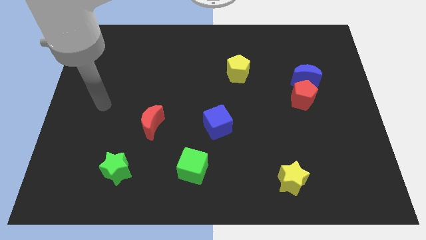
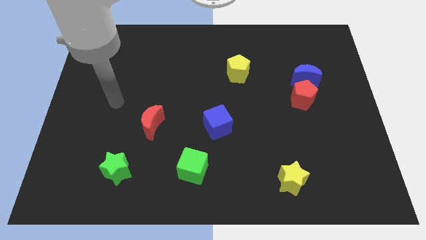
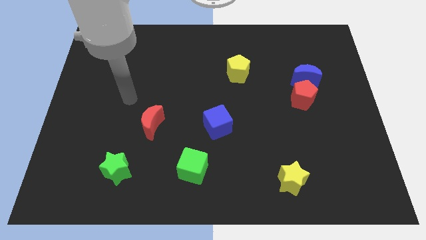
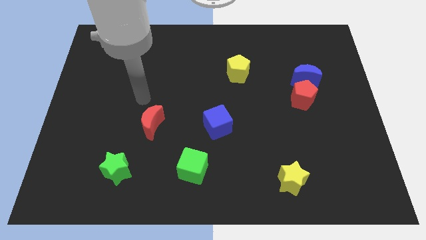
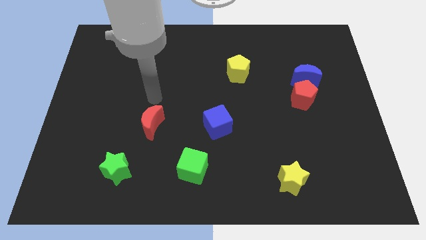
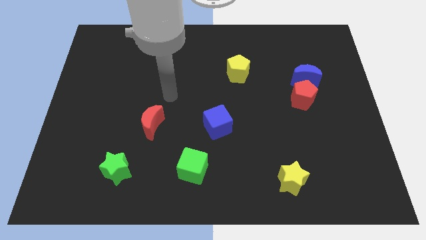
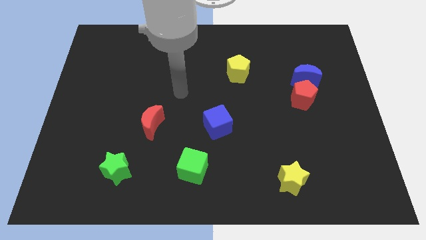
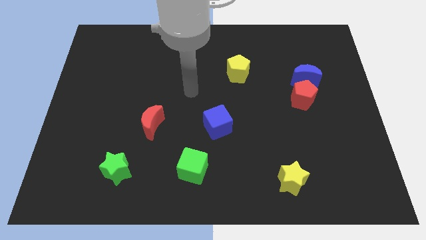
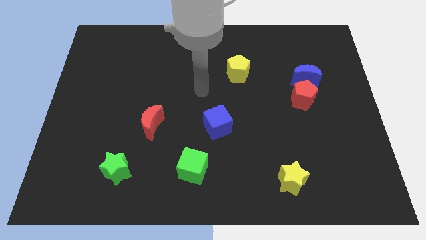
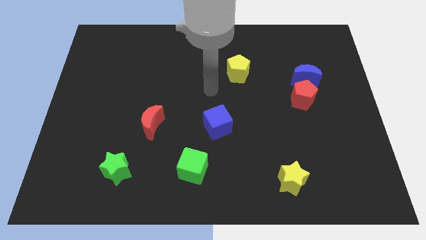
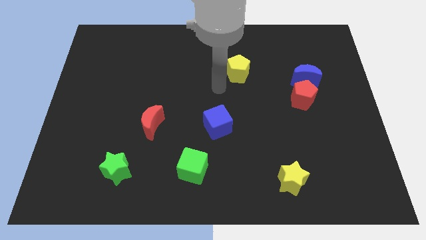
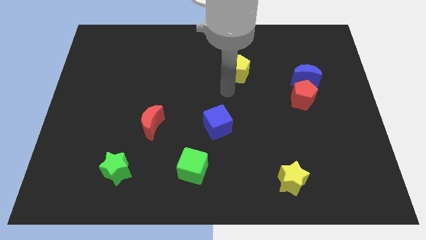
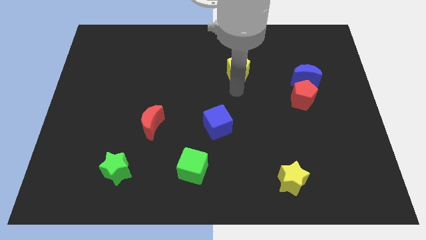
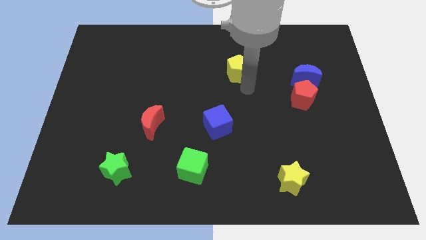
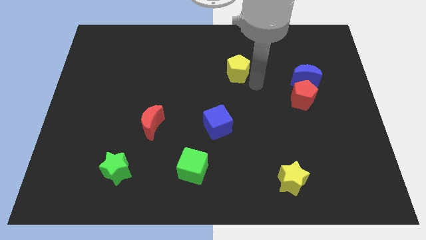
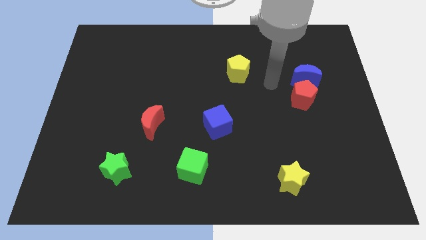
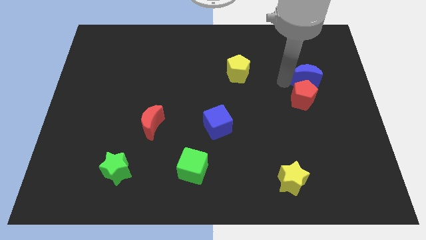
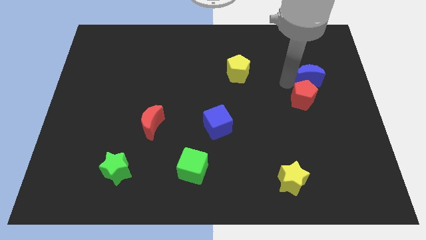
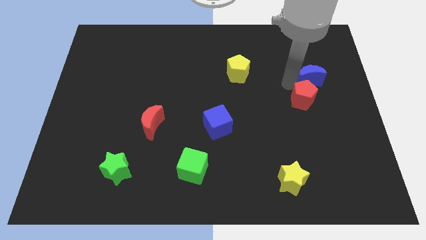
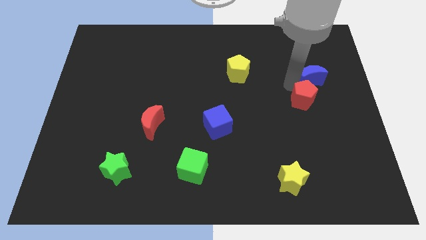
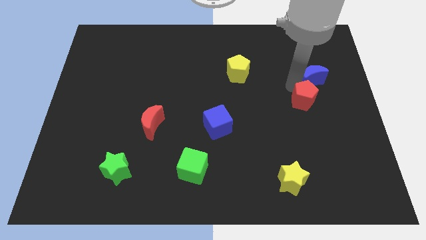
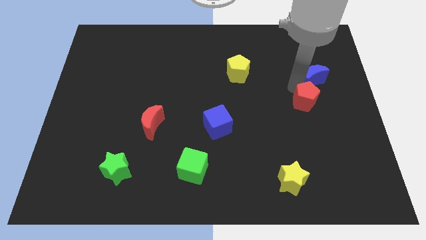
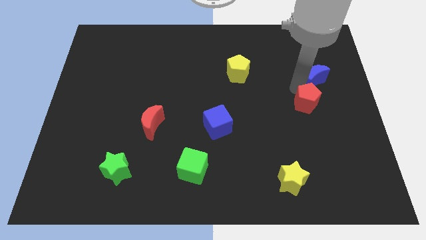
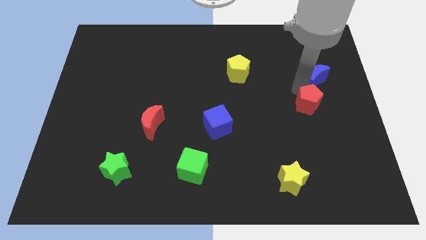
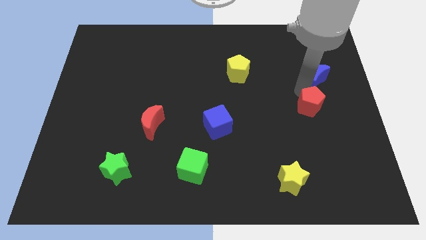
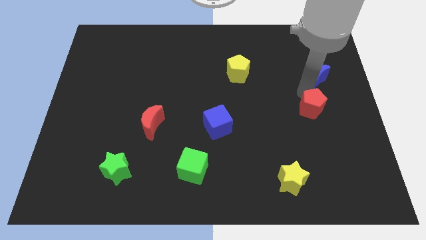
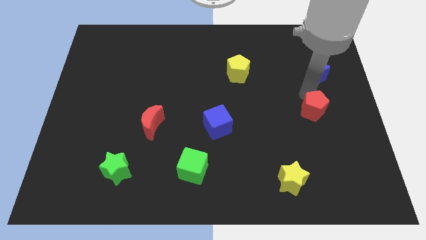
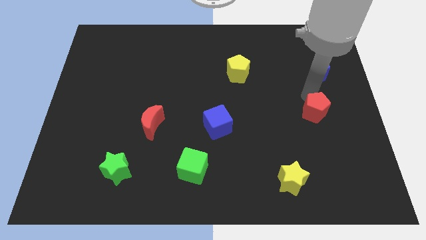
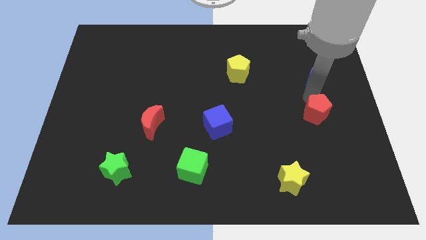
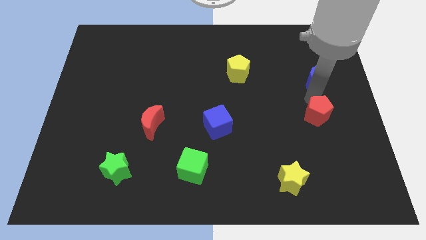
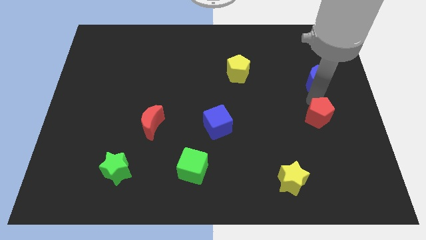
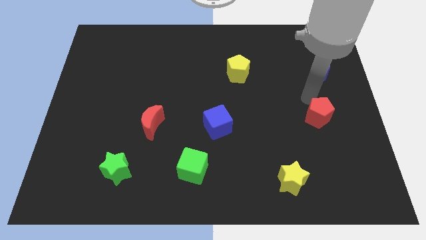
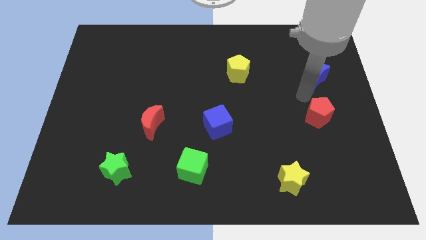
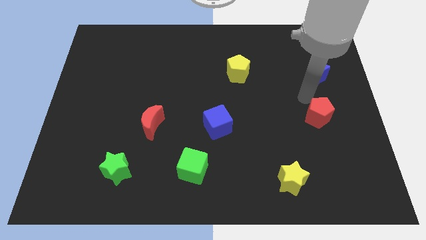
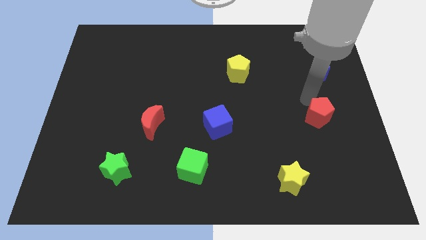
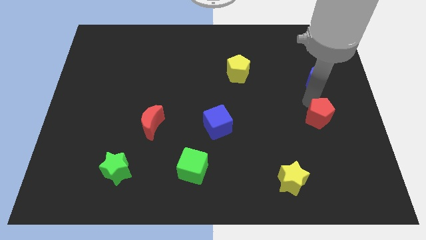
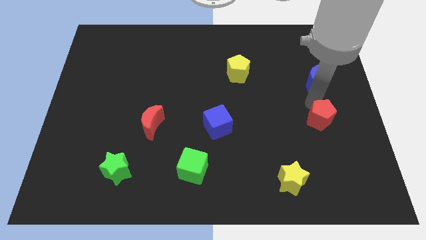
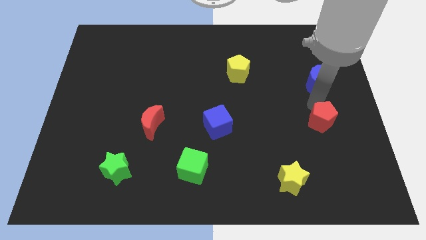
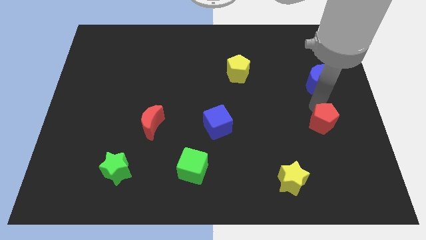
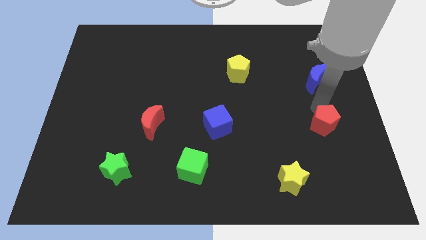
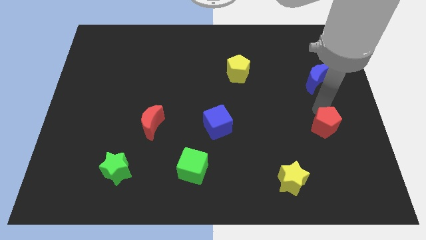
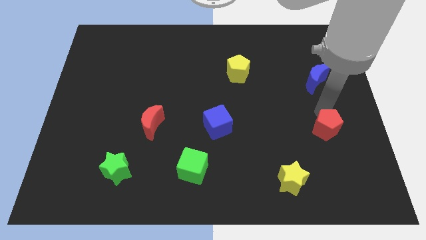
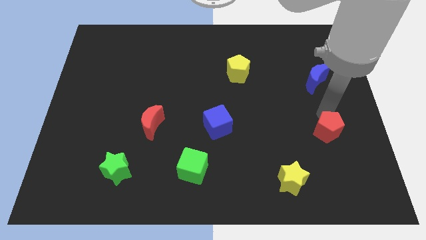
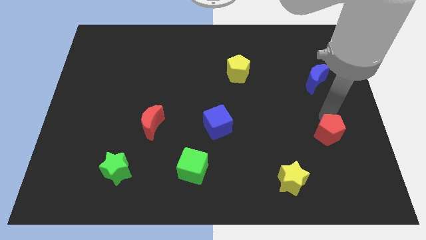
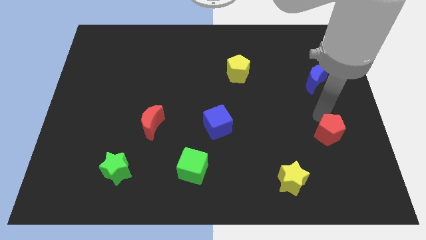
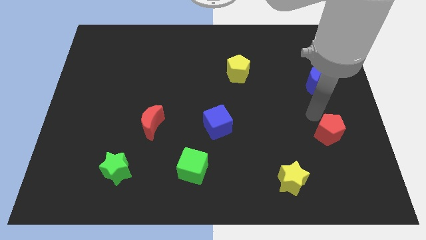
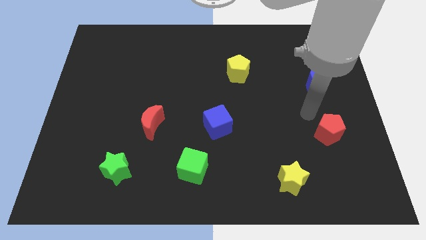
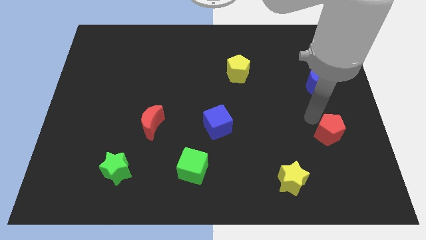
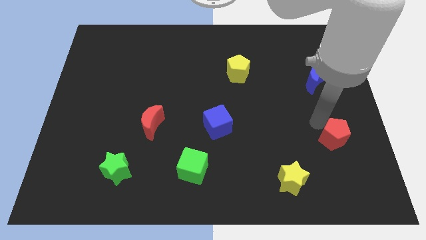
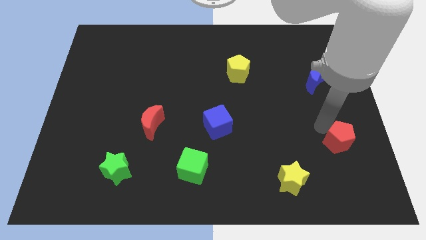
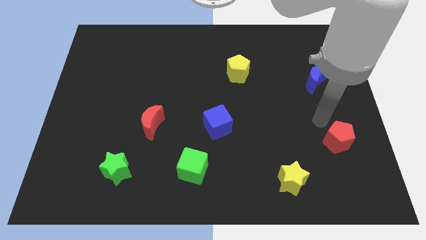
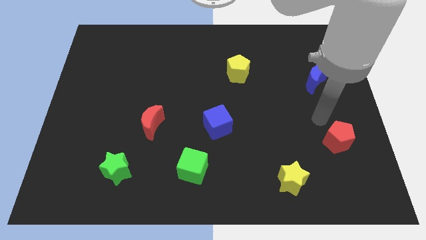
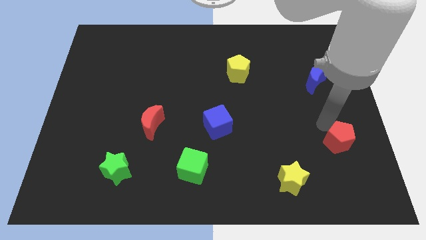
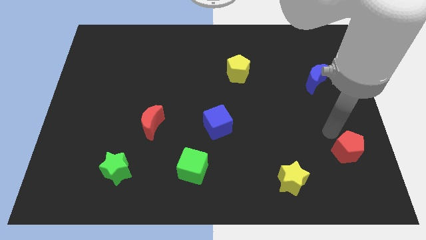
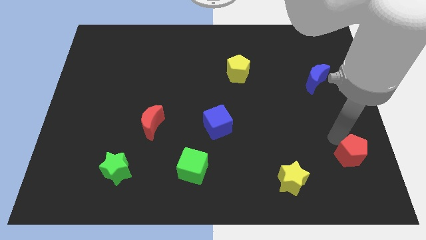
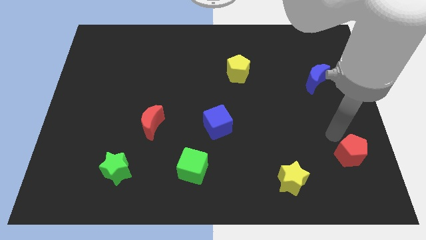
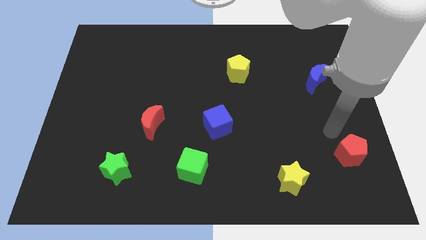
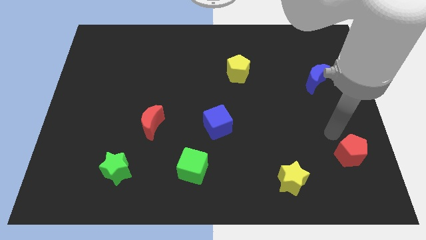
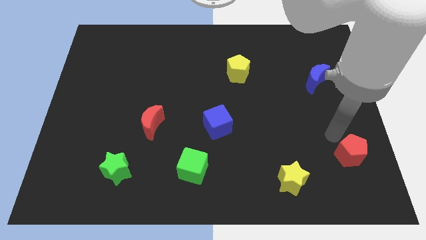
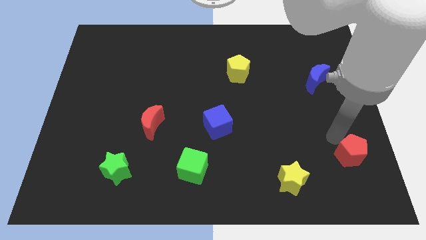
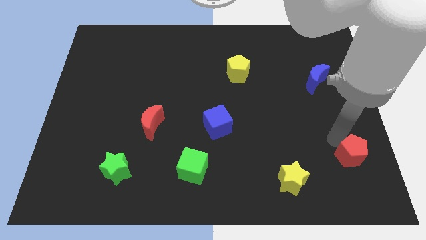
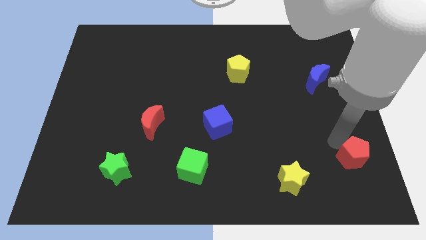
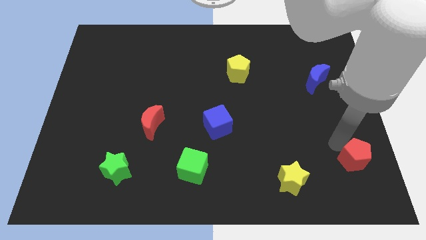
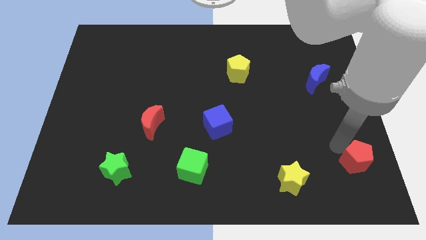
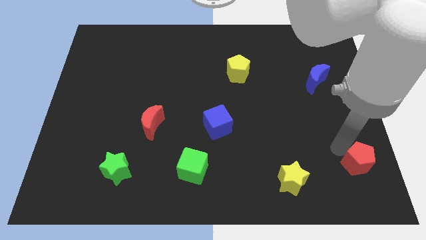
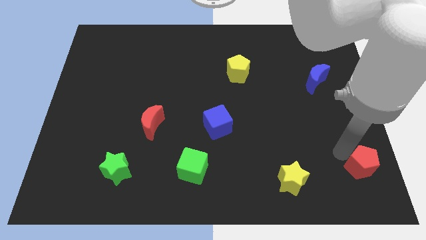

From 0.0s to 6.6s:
put the red pentagon to the lower right corner

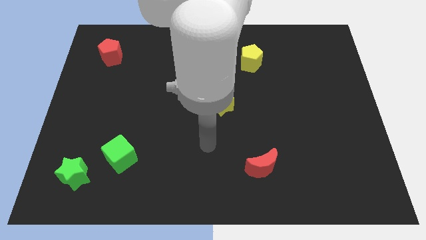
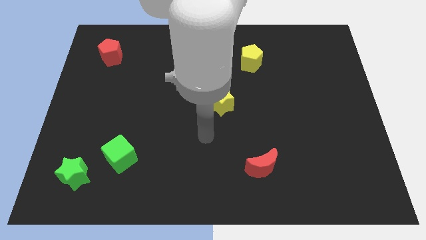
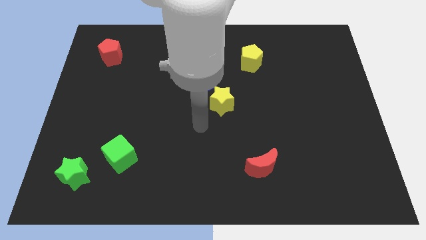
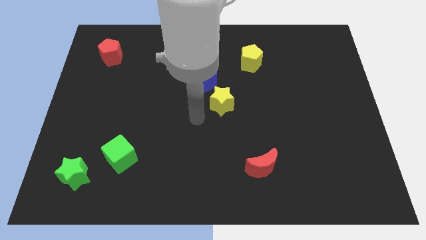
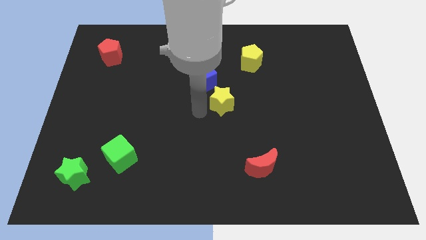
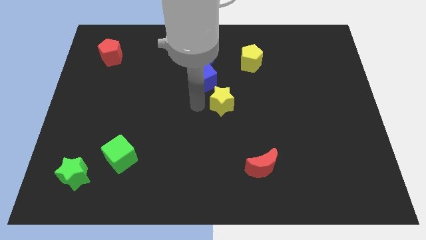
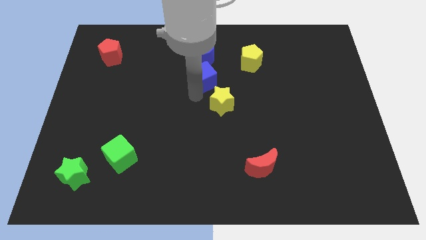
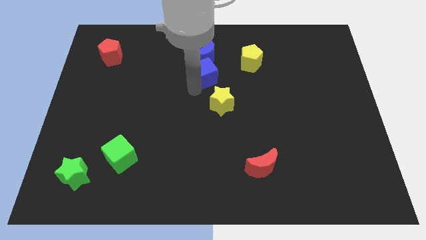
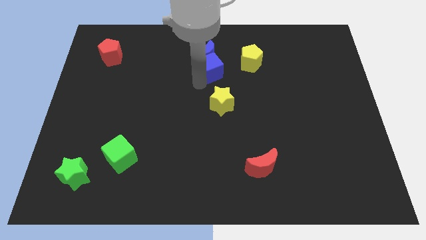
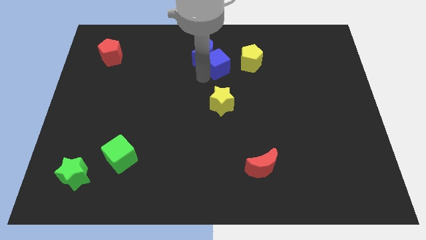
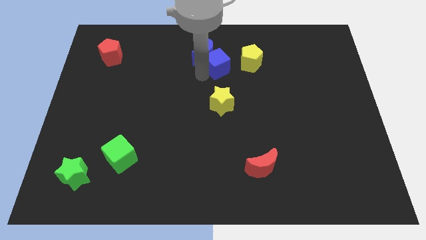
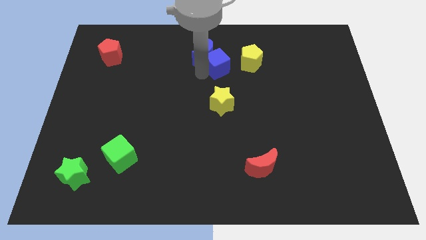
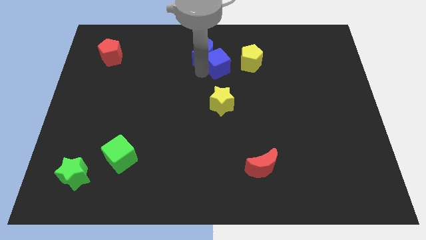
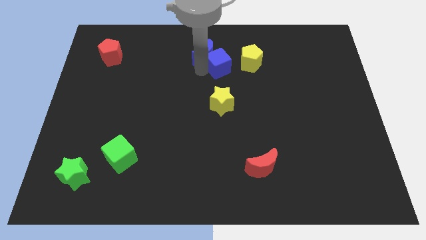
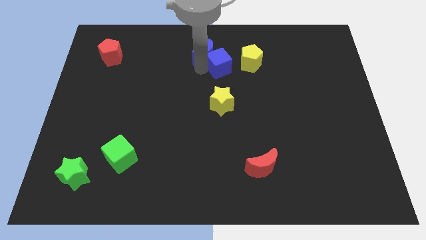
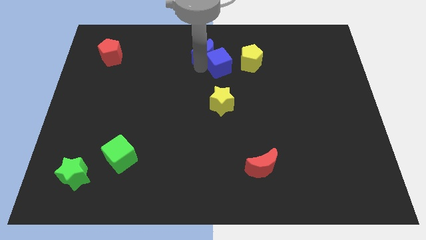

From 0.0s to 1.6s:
put the blue moon to the top side
